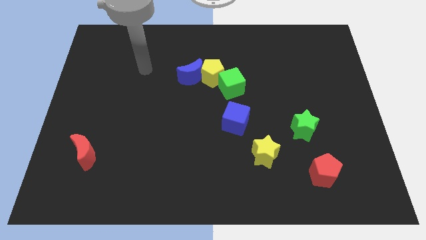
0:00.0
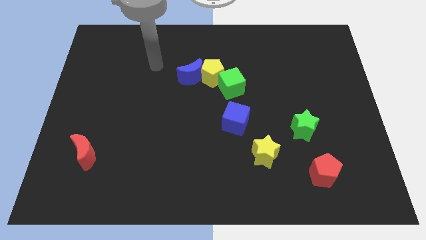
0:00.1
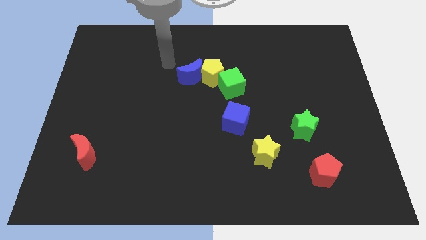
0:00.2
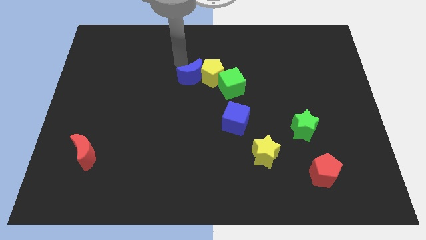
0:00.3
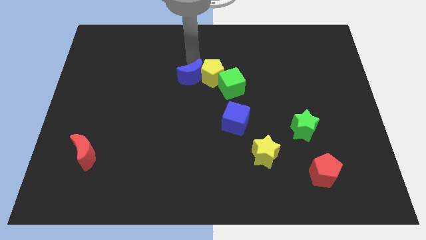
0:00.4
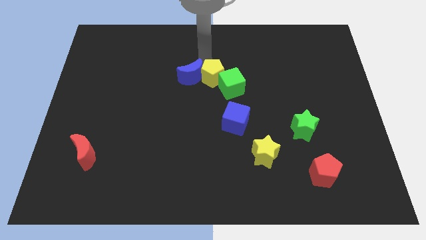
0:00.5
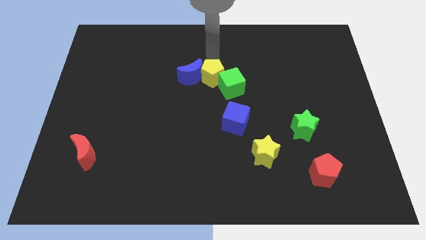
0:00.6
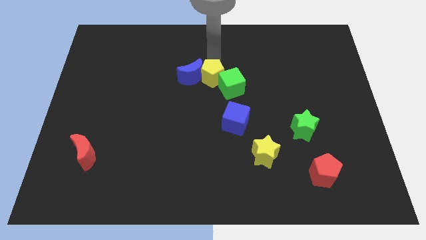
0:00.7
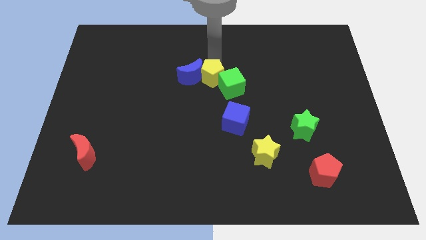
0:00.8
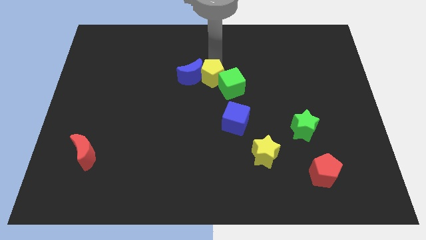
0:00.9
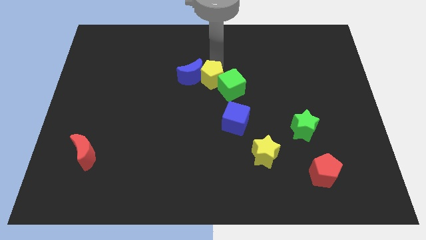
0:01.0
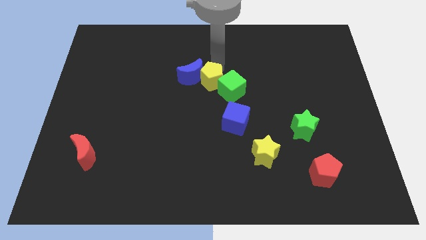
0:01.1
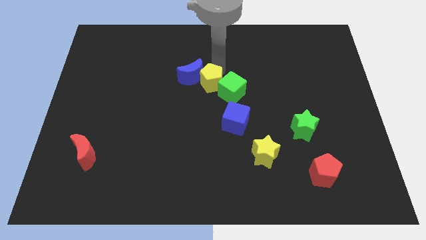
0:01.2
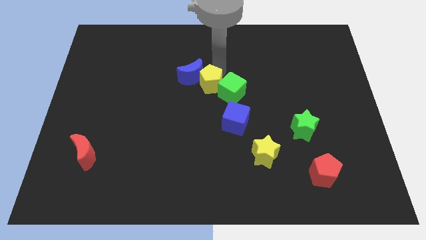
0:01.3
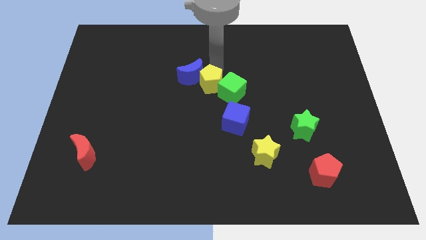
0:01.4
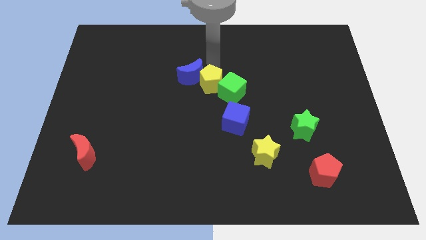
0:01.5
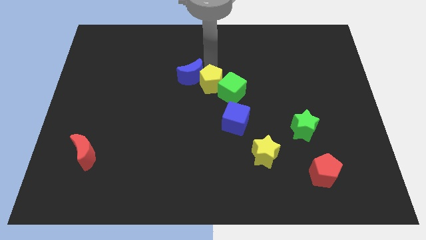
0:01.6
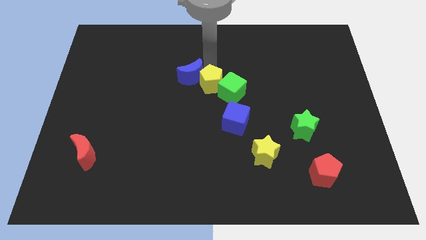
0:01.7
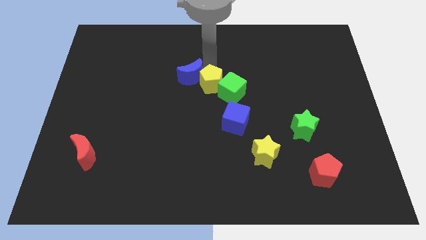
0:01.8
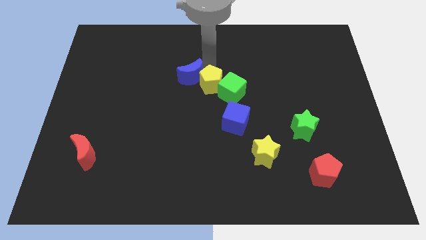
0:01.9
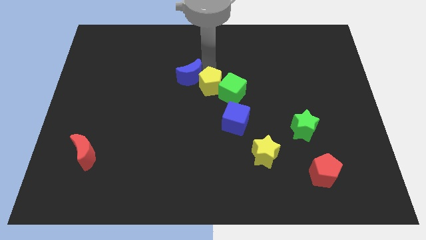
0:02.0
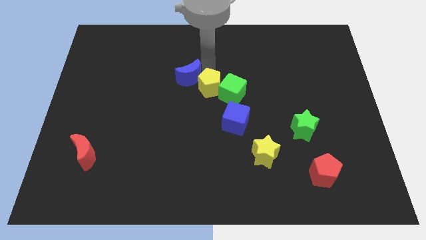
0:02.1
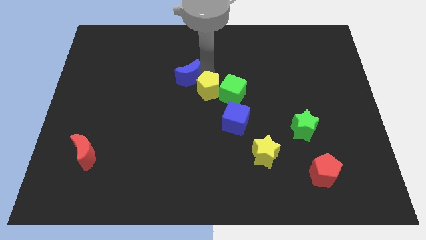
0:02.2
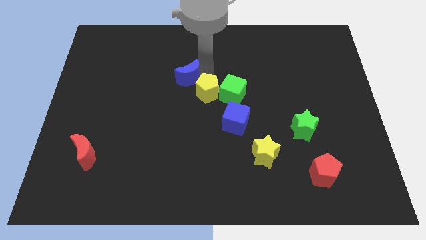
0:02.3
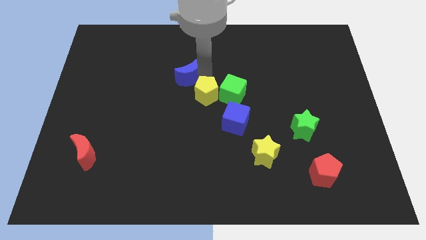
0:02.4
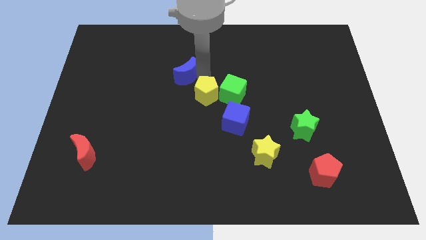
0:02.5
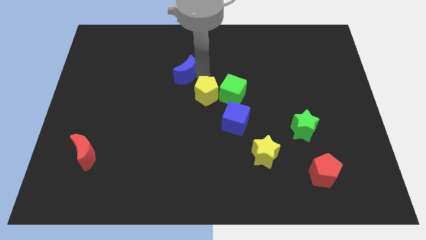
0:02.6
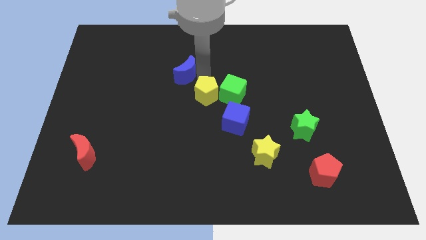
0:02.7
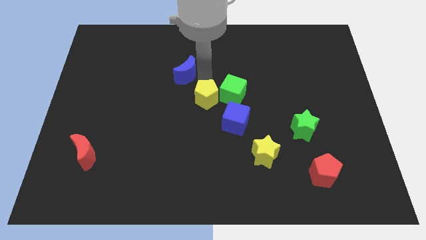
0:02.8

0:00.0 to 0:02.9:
push the yellow pentagon a little downwards

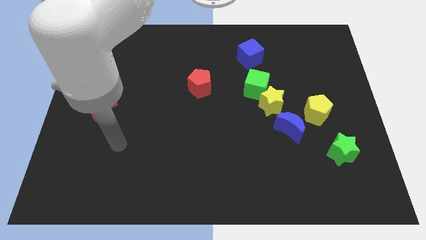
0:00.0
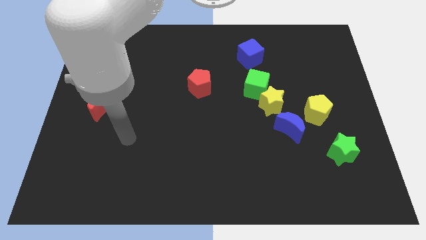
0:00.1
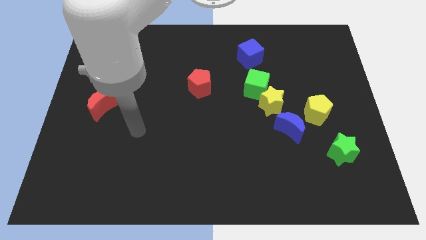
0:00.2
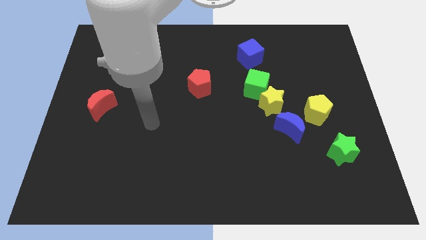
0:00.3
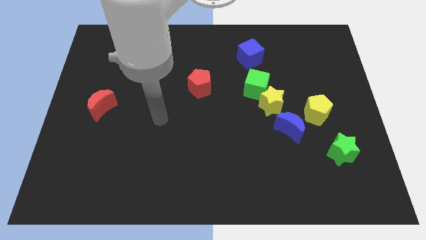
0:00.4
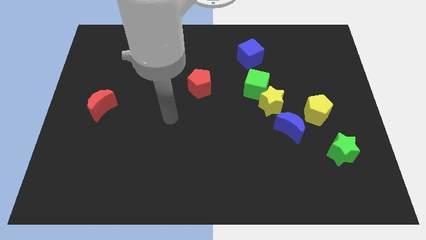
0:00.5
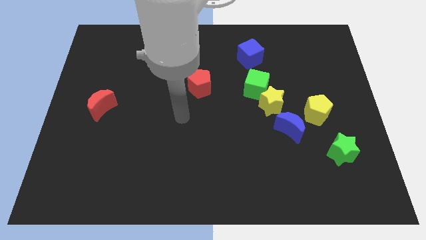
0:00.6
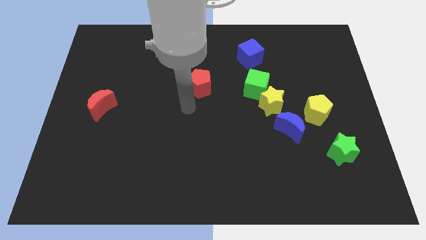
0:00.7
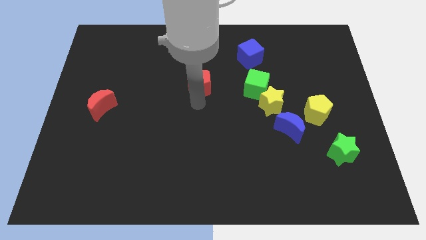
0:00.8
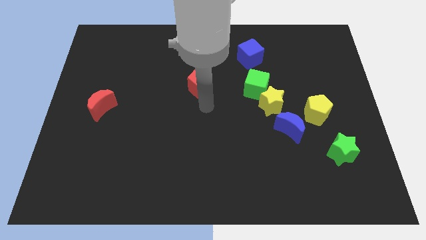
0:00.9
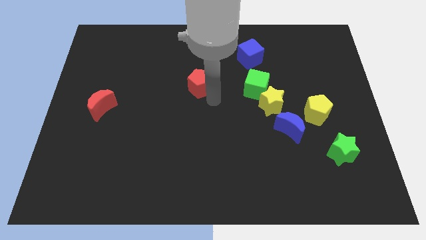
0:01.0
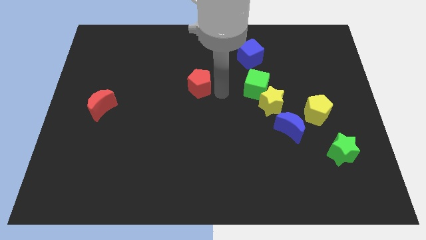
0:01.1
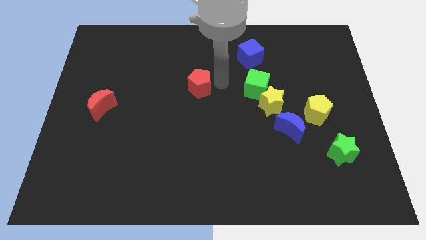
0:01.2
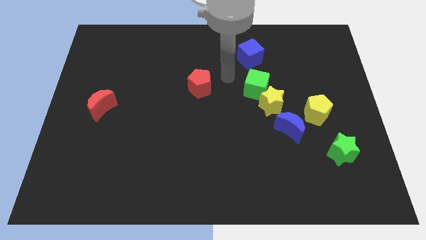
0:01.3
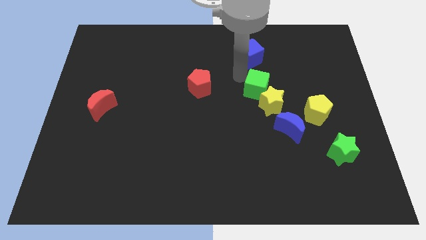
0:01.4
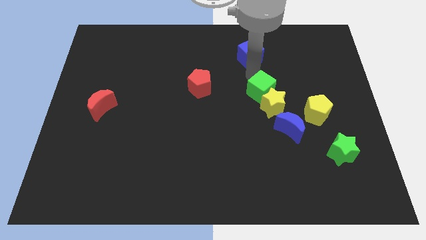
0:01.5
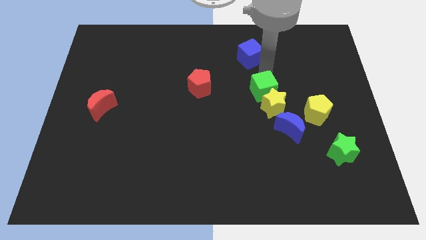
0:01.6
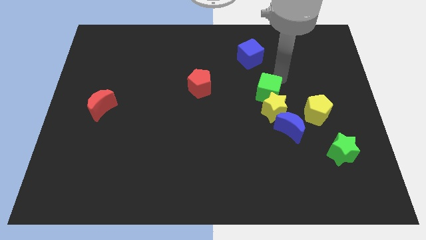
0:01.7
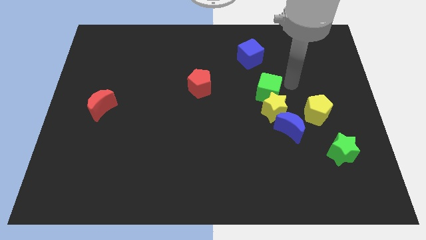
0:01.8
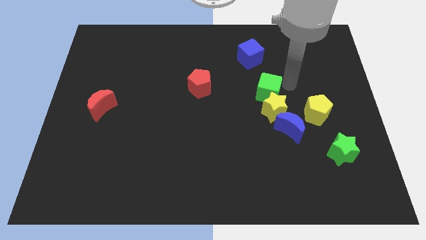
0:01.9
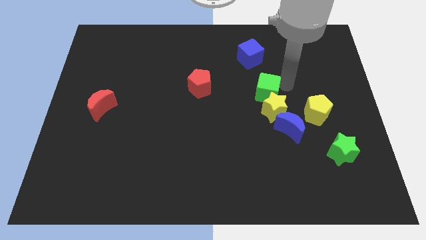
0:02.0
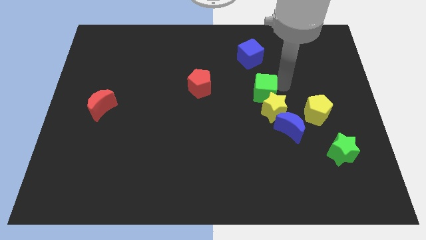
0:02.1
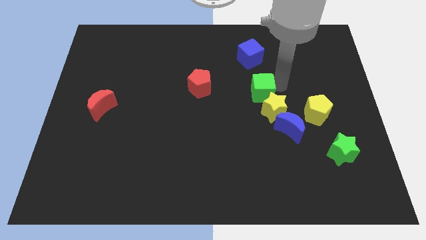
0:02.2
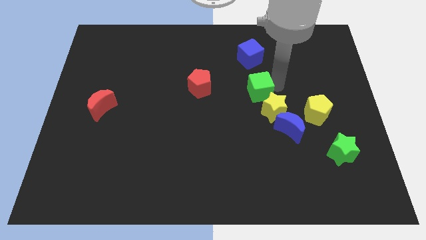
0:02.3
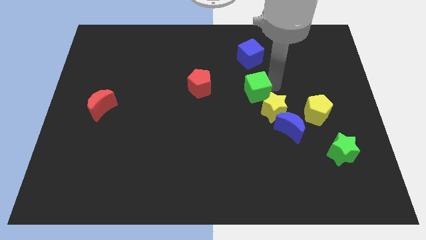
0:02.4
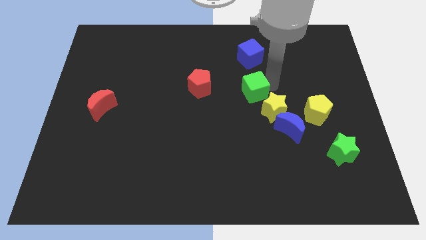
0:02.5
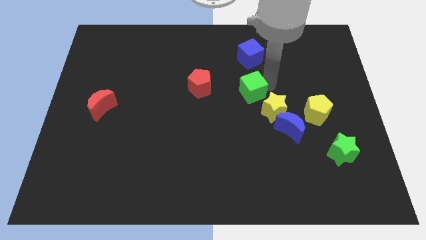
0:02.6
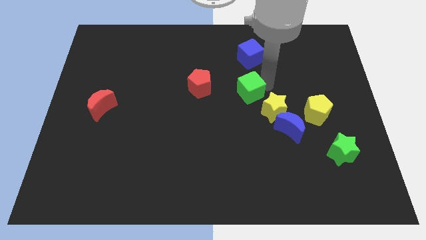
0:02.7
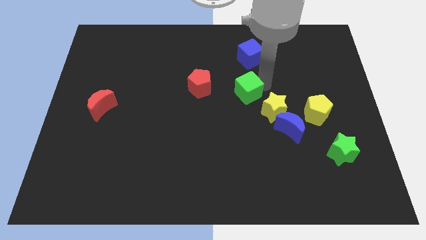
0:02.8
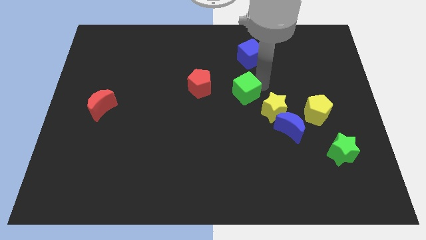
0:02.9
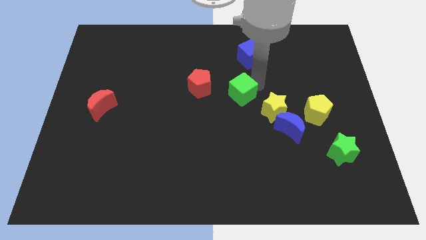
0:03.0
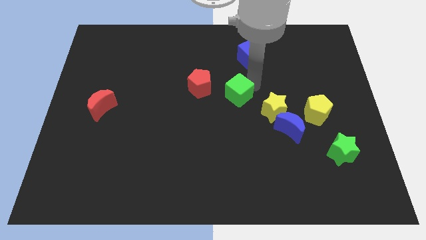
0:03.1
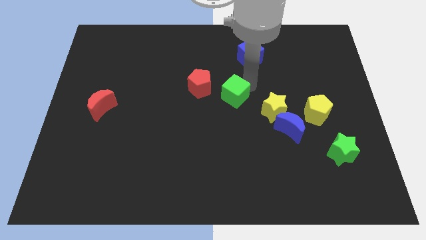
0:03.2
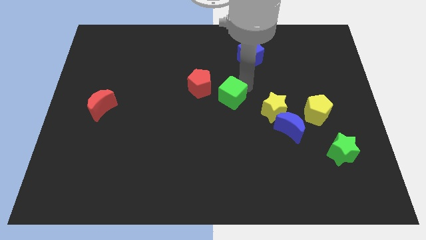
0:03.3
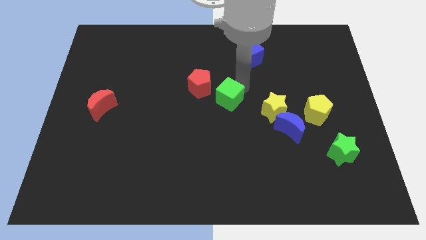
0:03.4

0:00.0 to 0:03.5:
push the green cube a little bit diagonally downwards and to the left

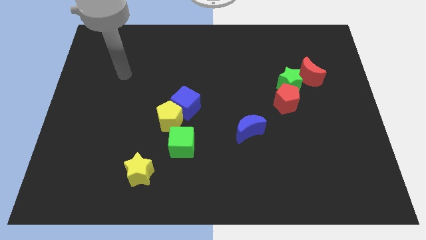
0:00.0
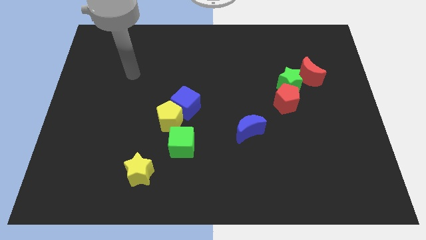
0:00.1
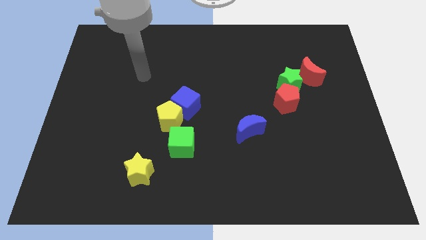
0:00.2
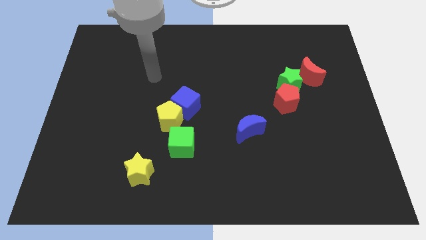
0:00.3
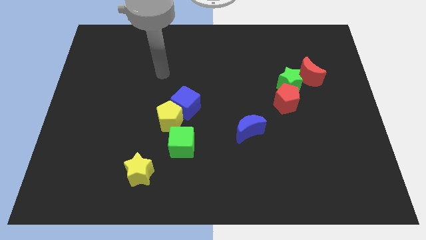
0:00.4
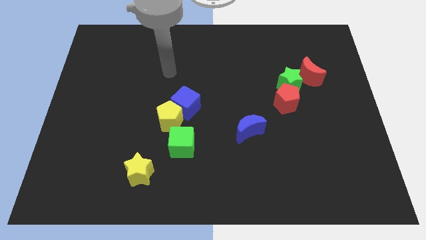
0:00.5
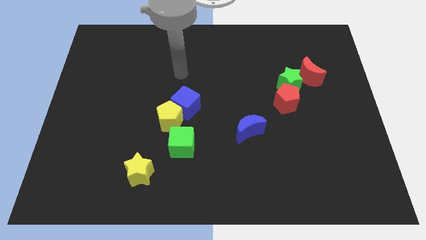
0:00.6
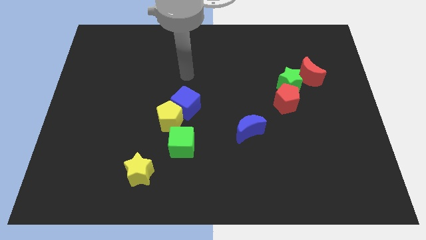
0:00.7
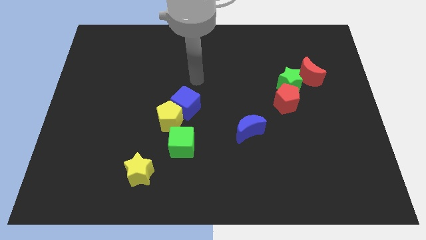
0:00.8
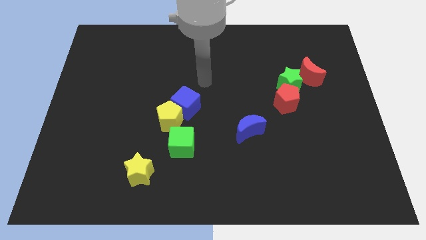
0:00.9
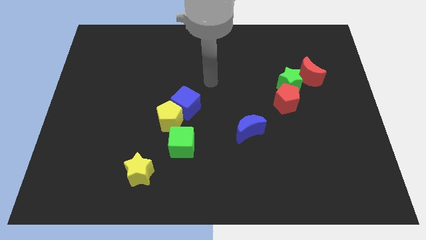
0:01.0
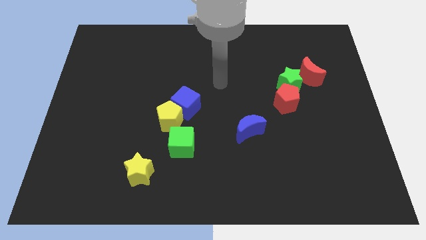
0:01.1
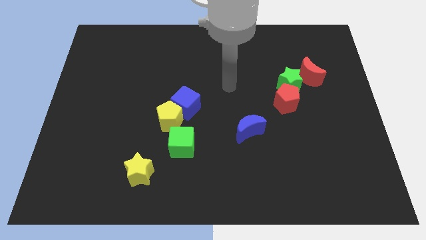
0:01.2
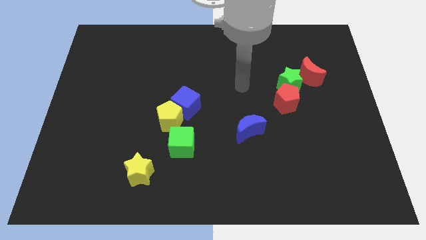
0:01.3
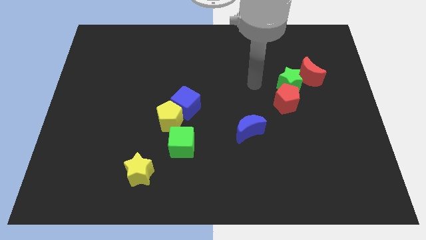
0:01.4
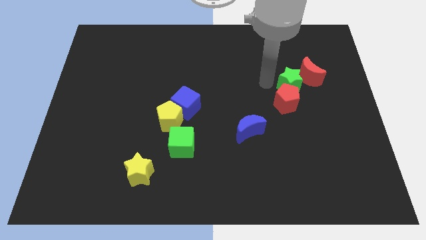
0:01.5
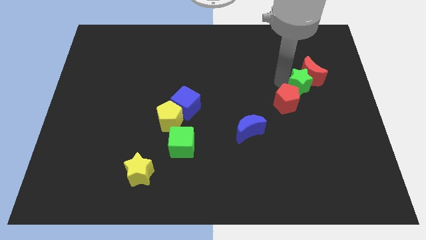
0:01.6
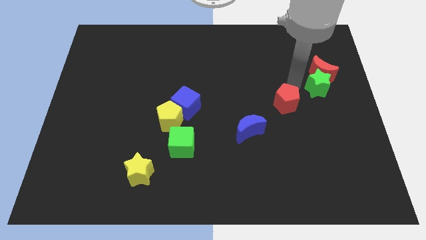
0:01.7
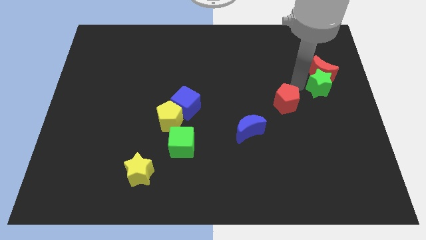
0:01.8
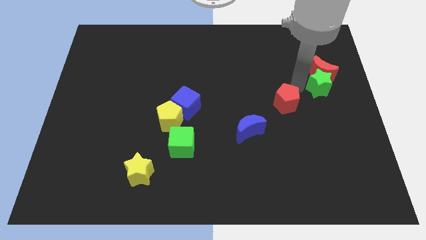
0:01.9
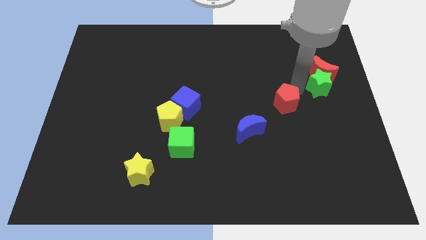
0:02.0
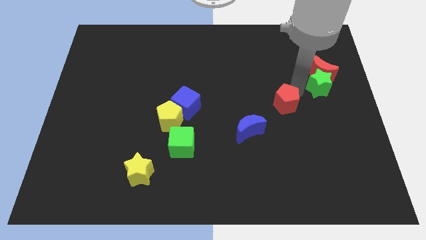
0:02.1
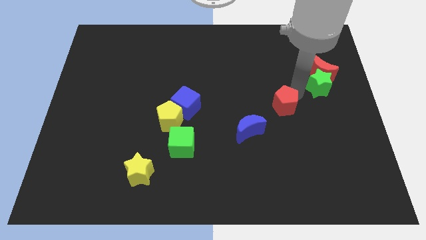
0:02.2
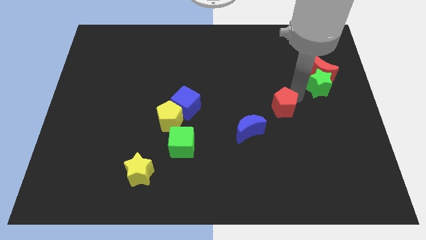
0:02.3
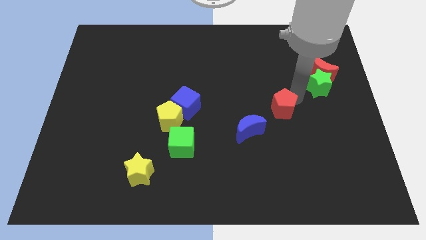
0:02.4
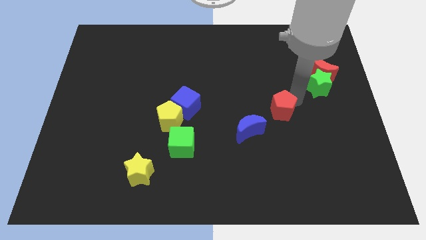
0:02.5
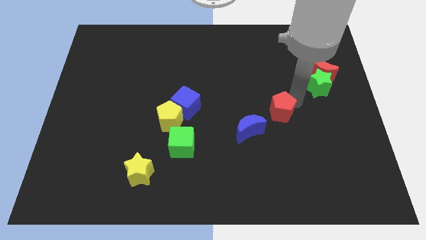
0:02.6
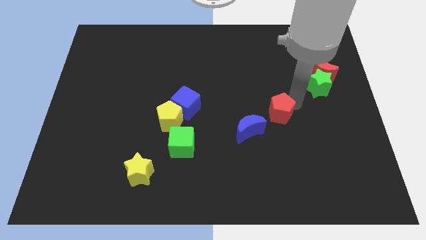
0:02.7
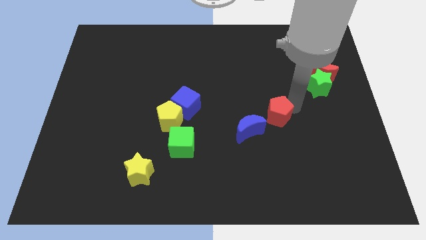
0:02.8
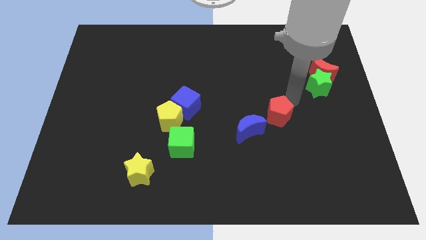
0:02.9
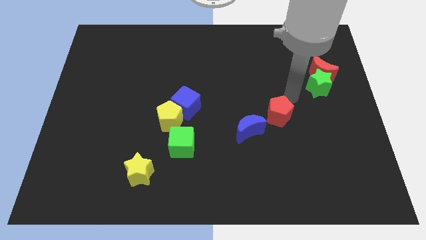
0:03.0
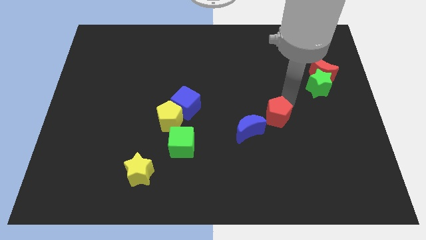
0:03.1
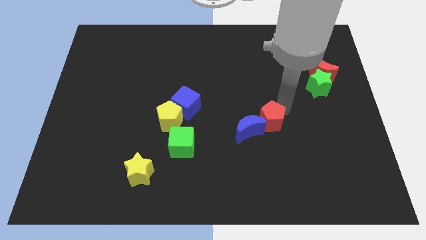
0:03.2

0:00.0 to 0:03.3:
push the red pentagon a little bit down and to the left diagonally
